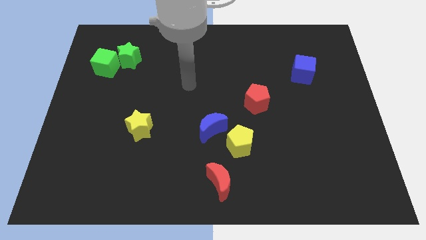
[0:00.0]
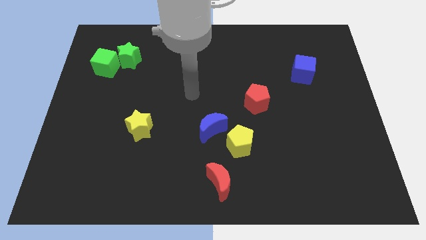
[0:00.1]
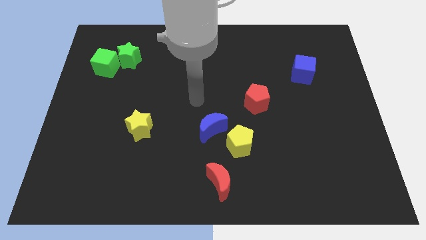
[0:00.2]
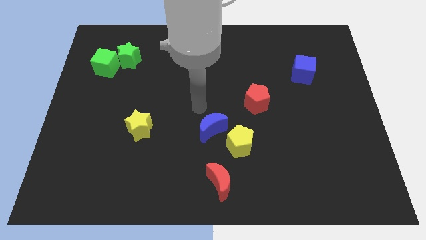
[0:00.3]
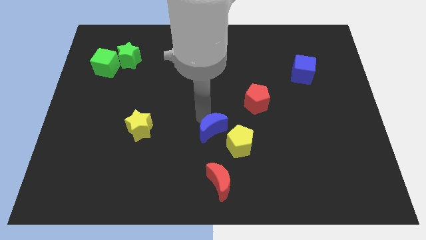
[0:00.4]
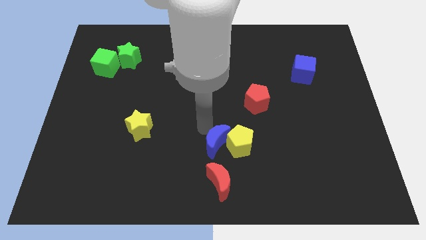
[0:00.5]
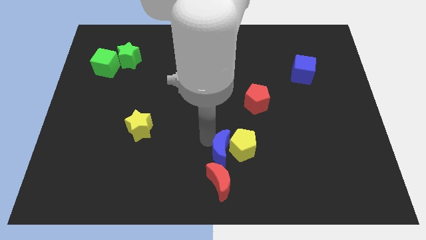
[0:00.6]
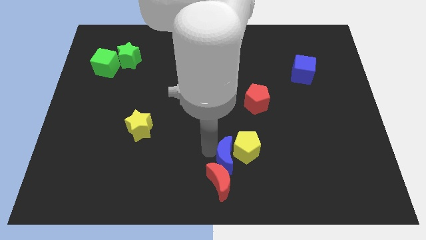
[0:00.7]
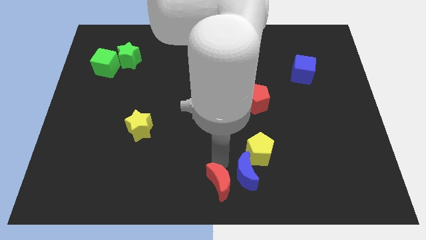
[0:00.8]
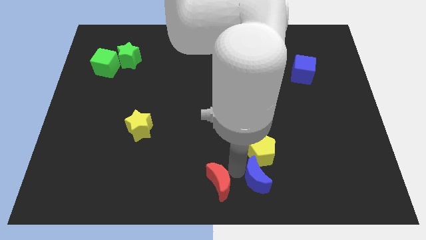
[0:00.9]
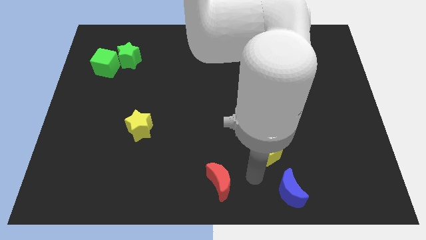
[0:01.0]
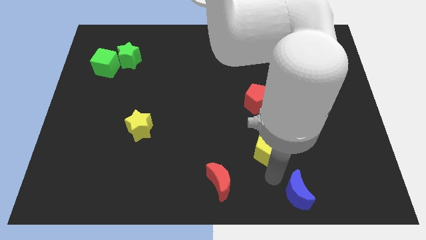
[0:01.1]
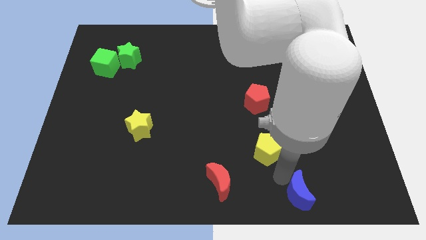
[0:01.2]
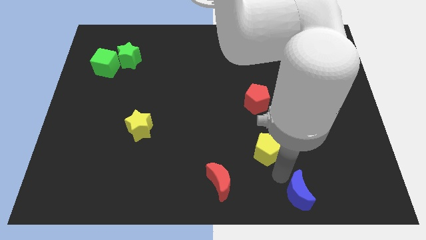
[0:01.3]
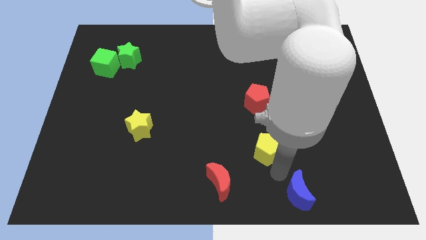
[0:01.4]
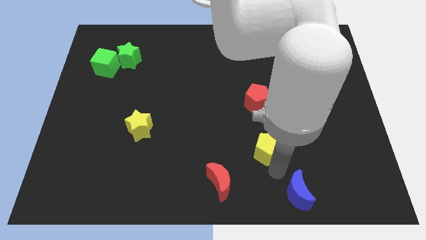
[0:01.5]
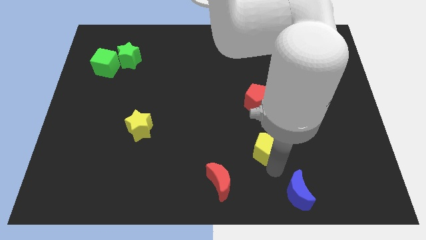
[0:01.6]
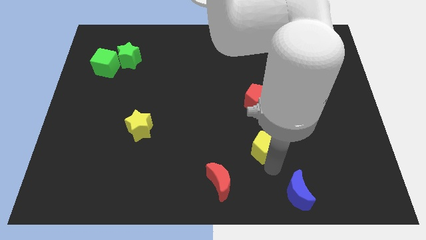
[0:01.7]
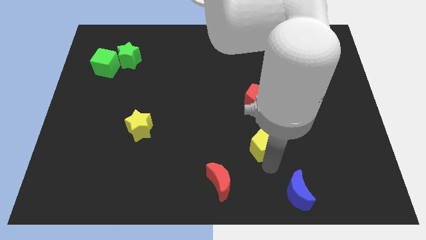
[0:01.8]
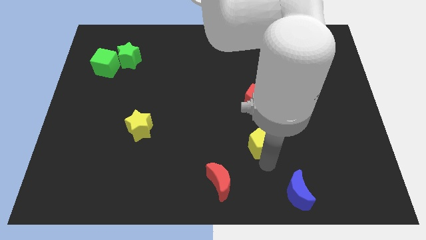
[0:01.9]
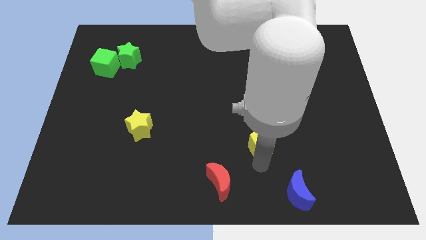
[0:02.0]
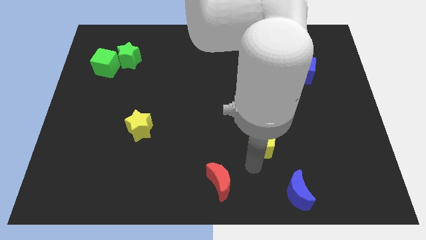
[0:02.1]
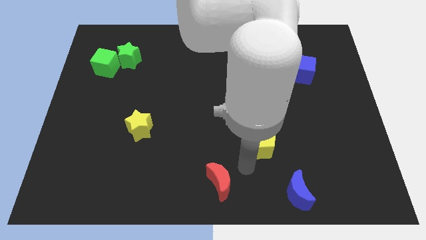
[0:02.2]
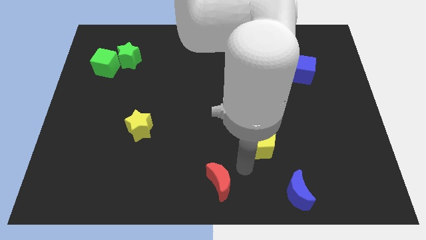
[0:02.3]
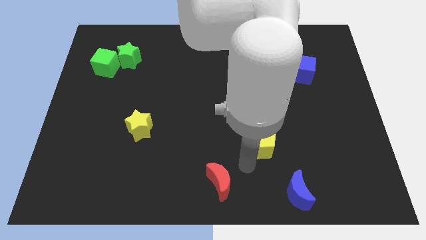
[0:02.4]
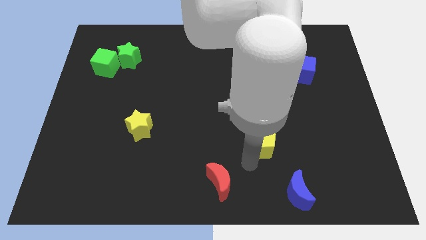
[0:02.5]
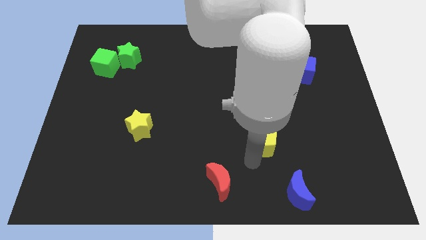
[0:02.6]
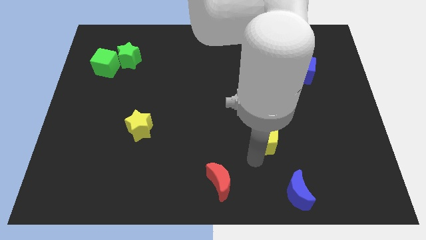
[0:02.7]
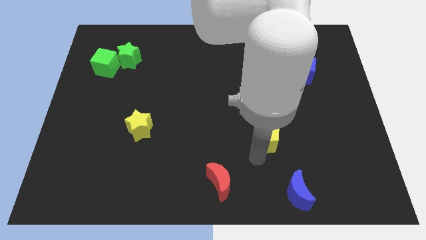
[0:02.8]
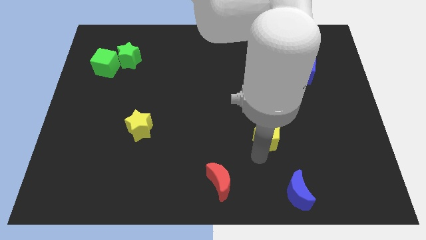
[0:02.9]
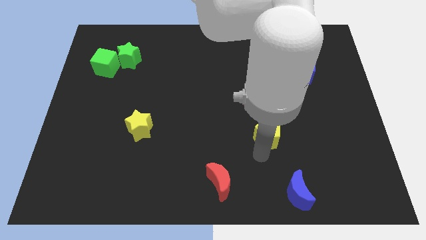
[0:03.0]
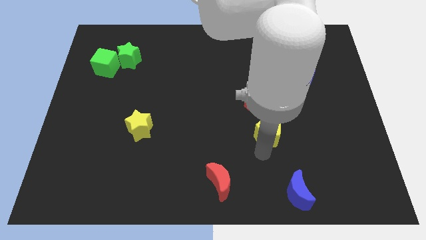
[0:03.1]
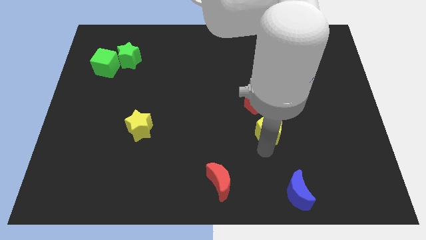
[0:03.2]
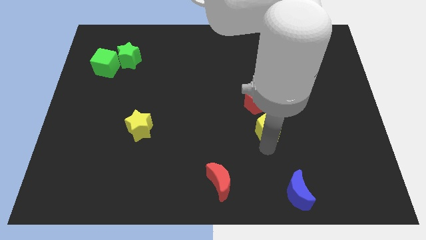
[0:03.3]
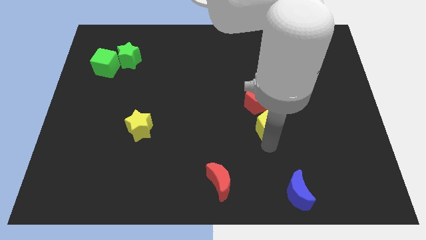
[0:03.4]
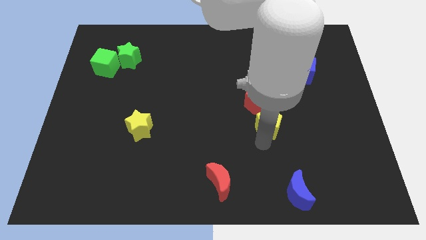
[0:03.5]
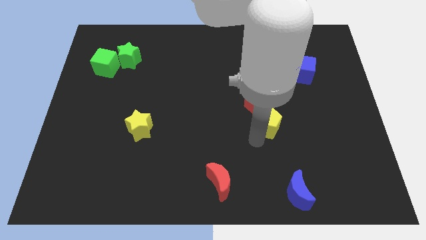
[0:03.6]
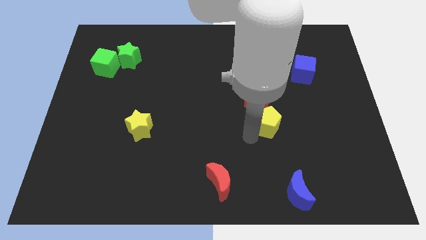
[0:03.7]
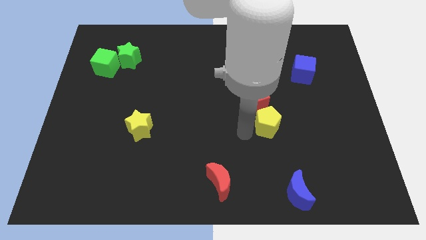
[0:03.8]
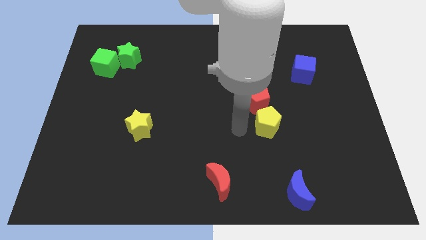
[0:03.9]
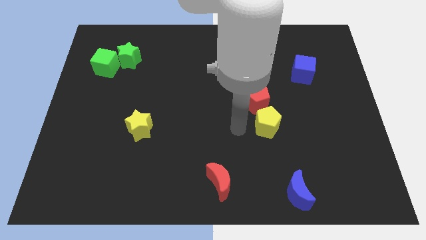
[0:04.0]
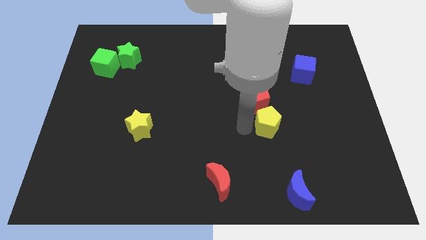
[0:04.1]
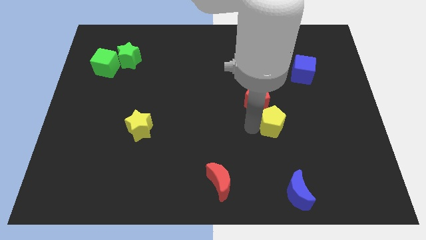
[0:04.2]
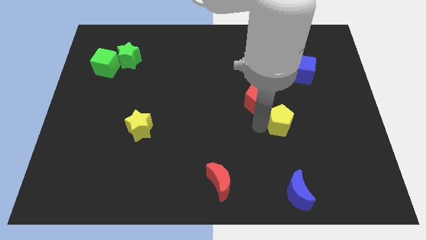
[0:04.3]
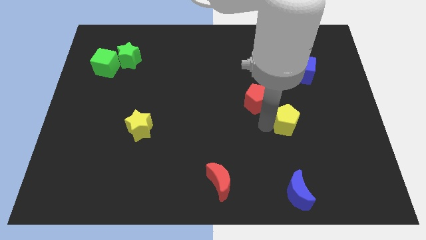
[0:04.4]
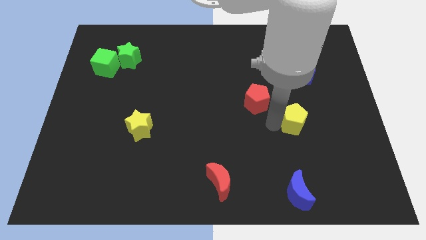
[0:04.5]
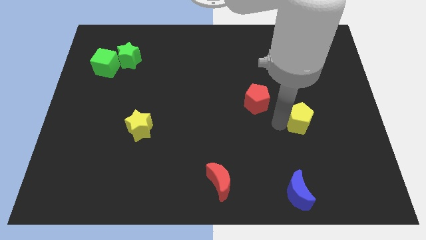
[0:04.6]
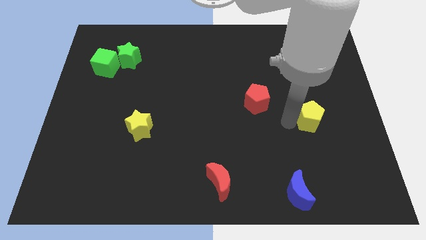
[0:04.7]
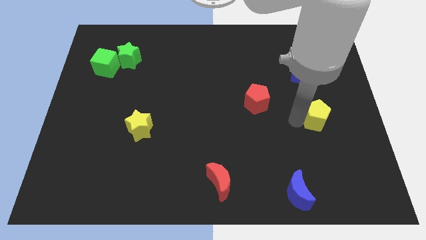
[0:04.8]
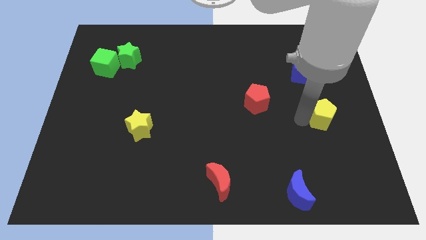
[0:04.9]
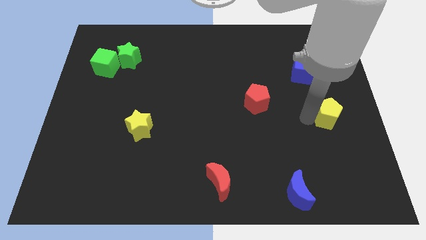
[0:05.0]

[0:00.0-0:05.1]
push the yellow pentagon to the center right

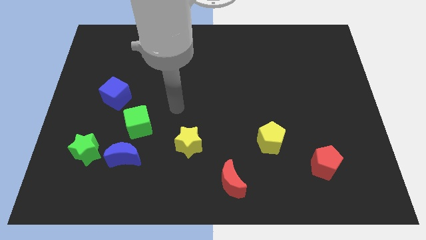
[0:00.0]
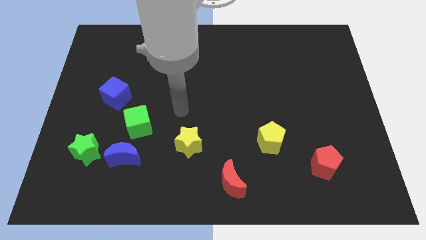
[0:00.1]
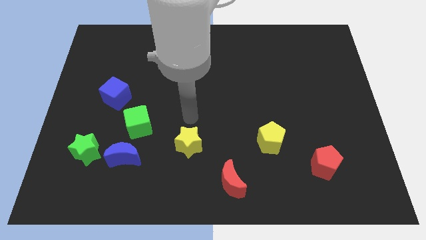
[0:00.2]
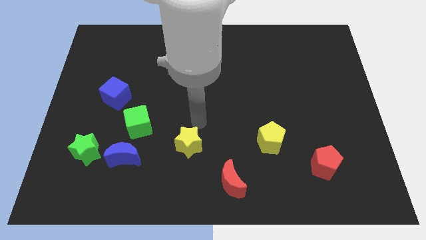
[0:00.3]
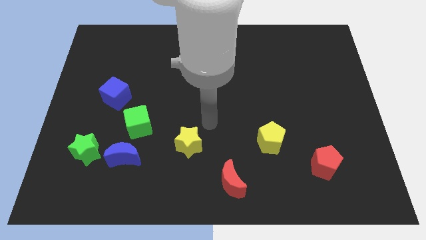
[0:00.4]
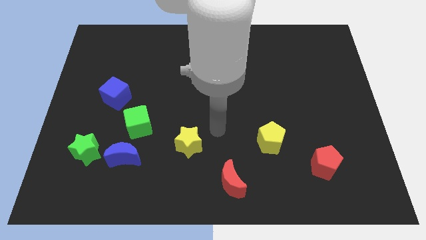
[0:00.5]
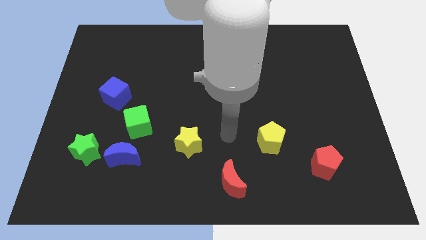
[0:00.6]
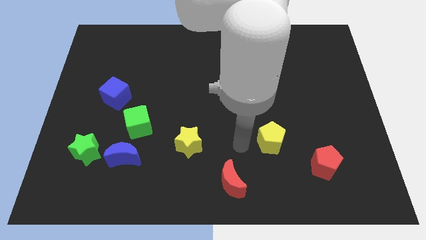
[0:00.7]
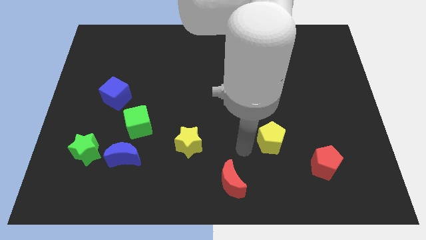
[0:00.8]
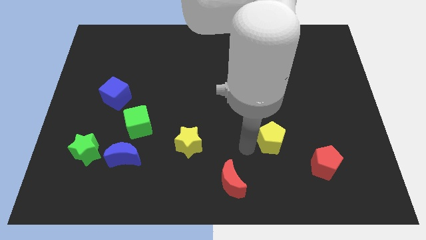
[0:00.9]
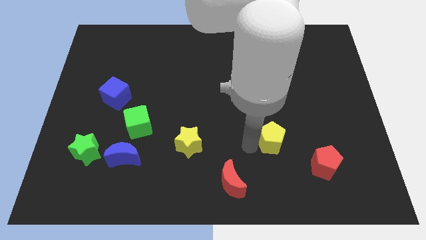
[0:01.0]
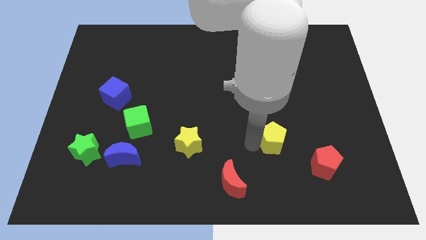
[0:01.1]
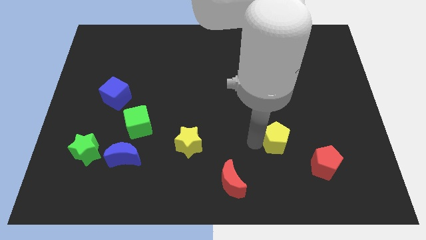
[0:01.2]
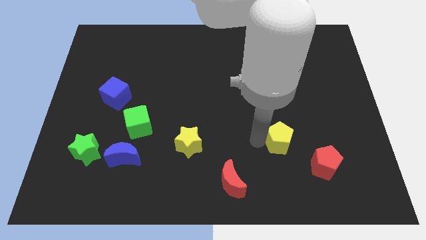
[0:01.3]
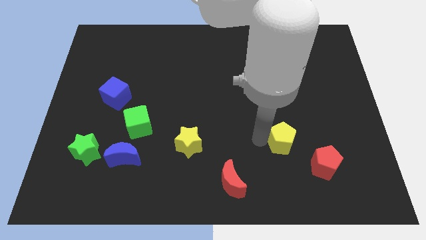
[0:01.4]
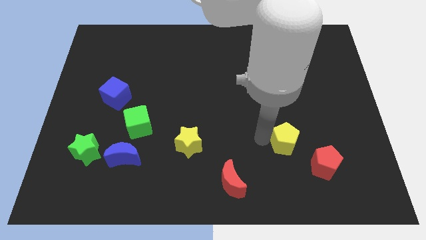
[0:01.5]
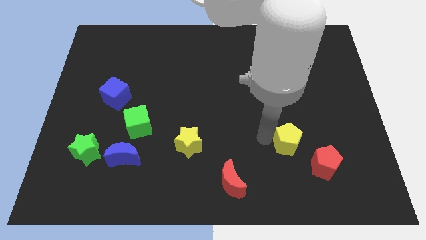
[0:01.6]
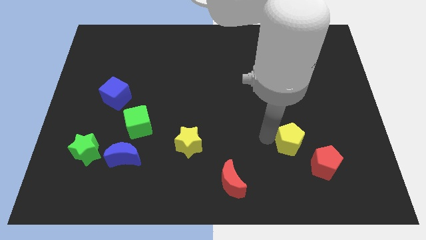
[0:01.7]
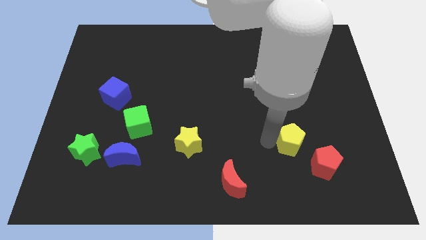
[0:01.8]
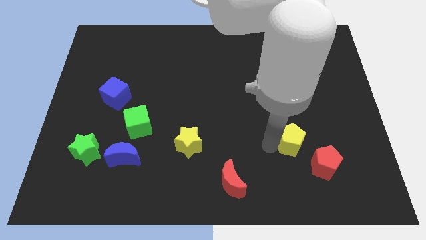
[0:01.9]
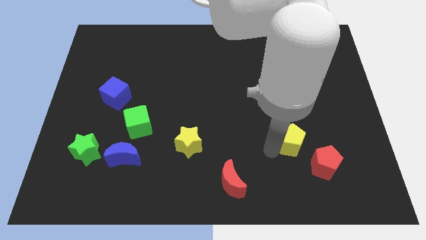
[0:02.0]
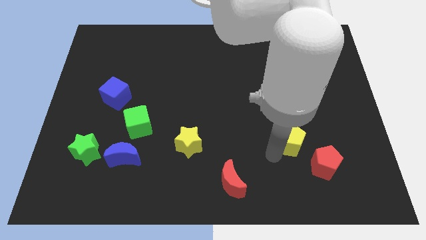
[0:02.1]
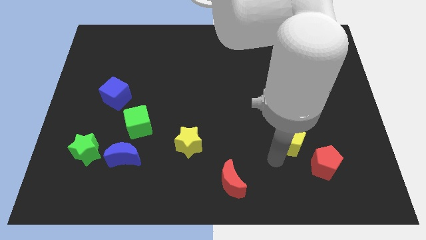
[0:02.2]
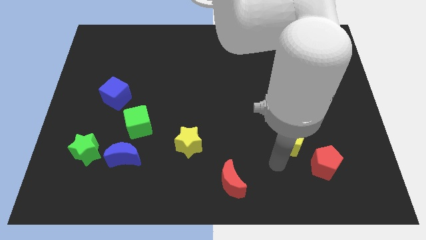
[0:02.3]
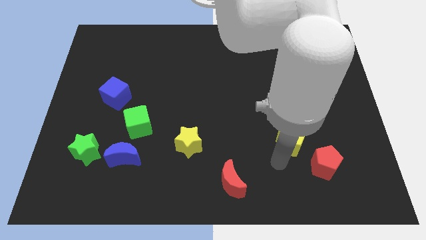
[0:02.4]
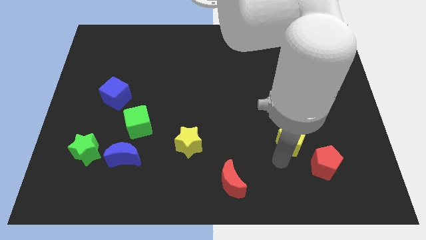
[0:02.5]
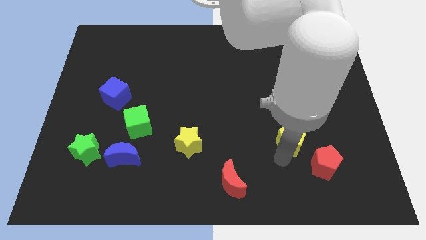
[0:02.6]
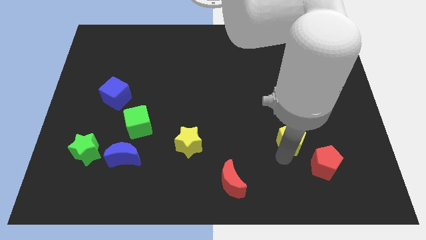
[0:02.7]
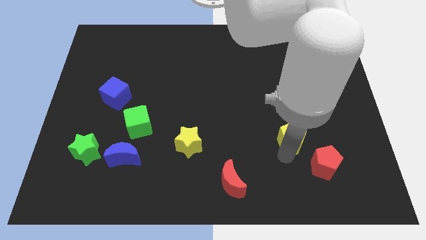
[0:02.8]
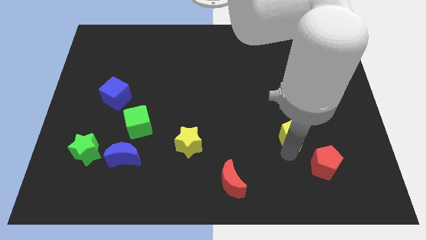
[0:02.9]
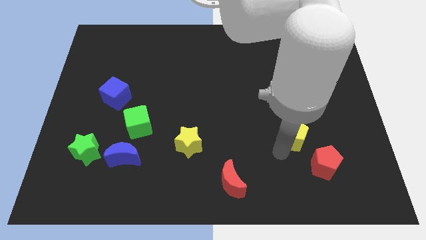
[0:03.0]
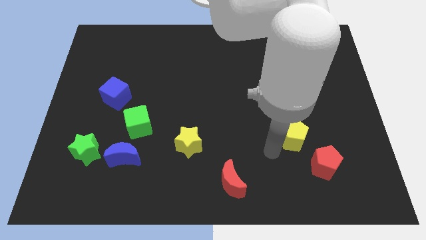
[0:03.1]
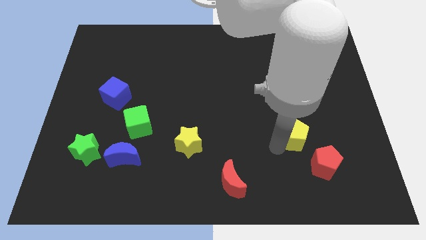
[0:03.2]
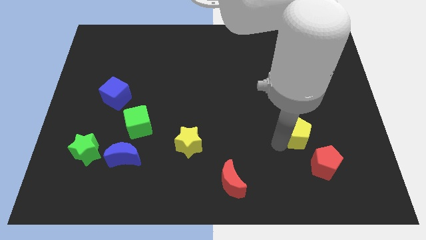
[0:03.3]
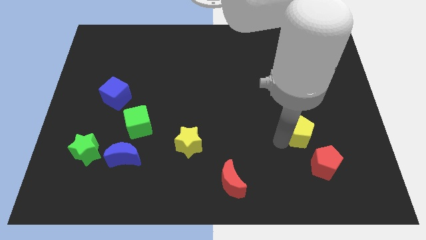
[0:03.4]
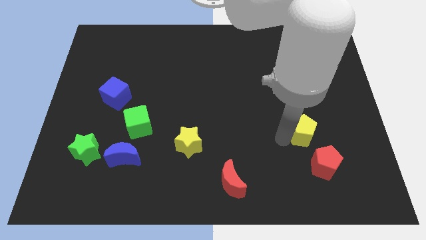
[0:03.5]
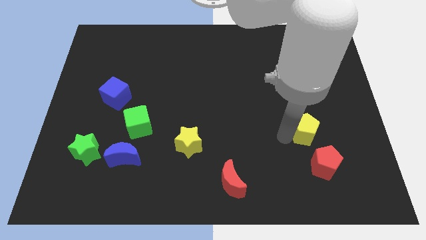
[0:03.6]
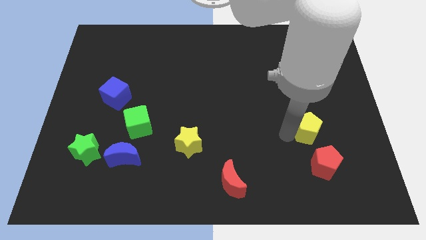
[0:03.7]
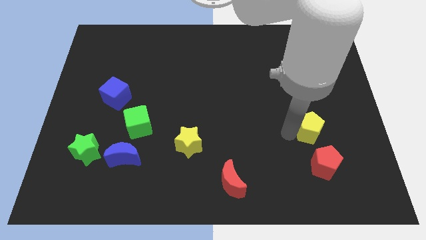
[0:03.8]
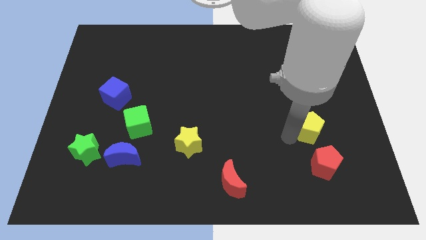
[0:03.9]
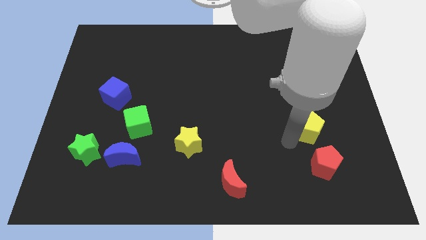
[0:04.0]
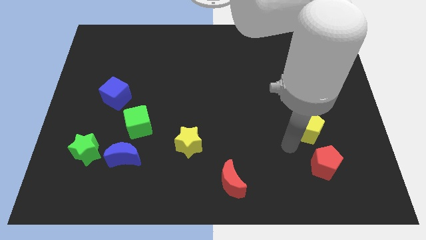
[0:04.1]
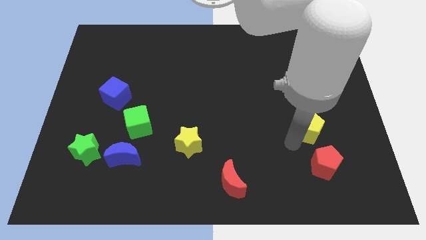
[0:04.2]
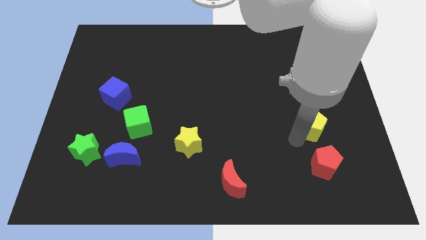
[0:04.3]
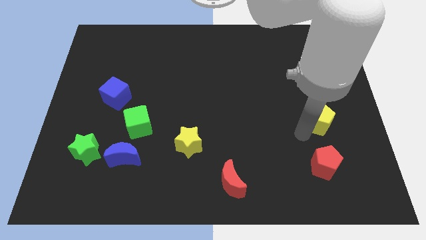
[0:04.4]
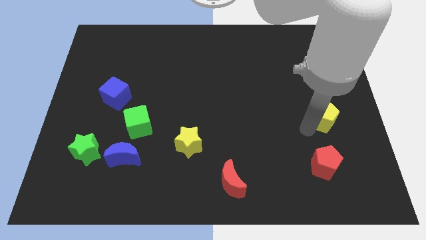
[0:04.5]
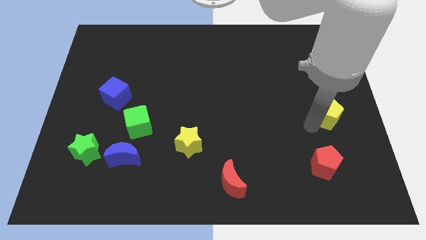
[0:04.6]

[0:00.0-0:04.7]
put the yellow pentagon to the center right
